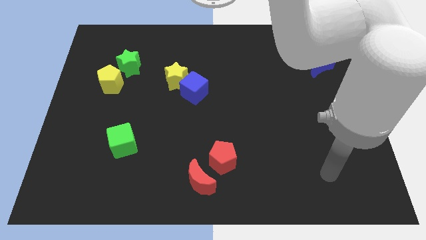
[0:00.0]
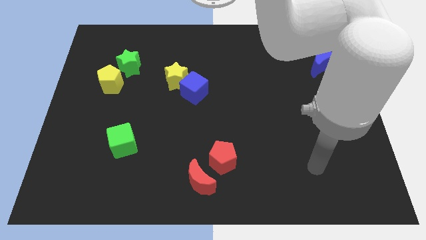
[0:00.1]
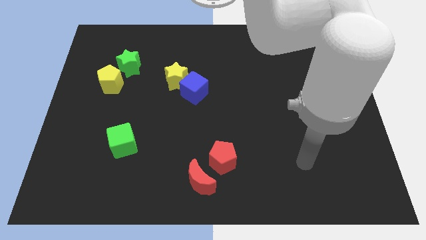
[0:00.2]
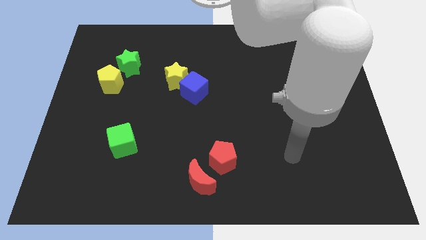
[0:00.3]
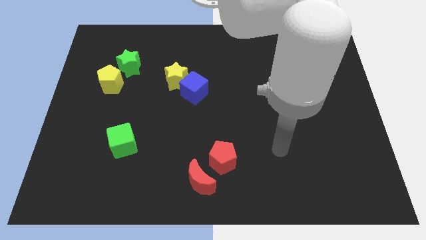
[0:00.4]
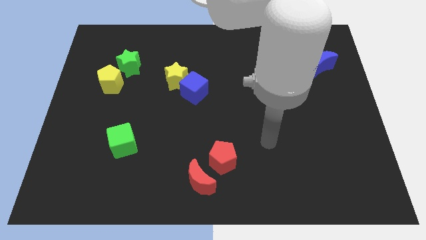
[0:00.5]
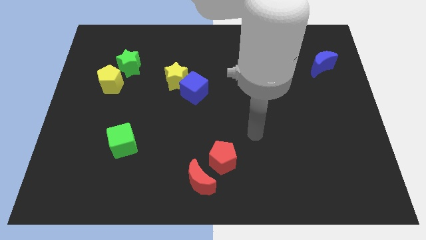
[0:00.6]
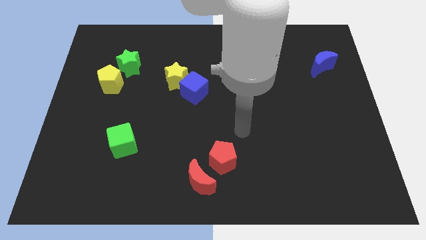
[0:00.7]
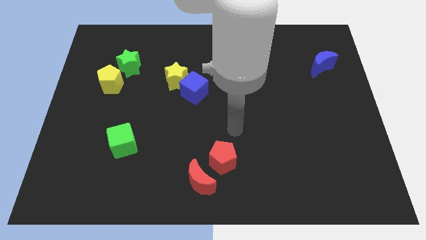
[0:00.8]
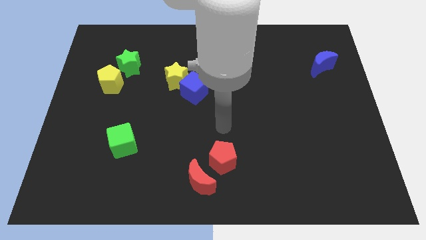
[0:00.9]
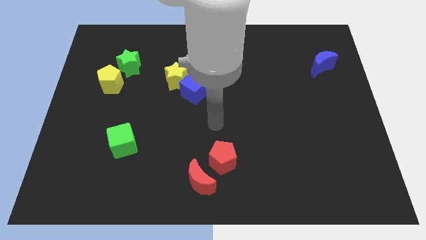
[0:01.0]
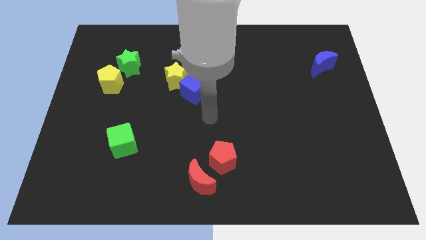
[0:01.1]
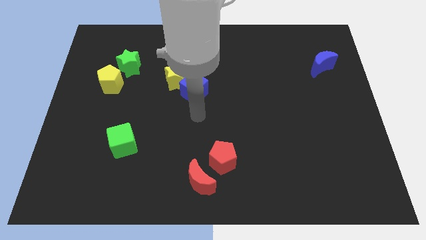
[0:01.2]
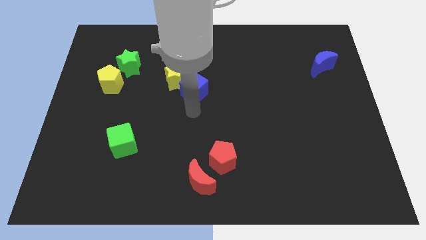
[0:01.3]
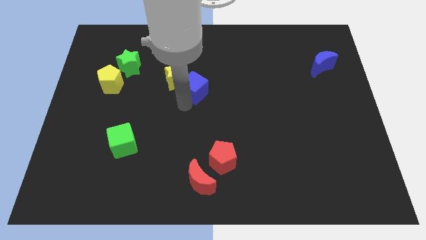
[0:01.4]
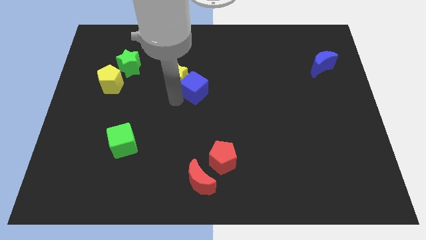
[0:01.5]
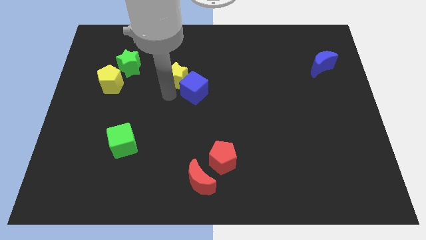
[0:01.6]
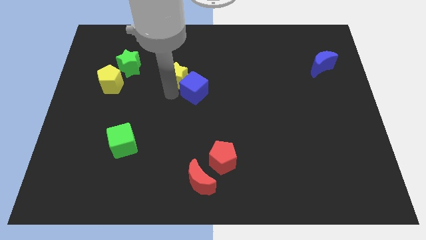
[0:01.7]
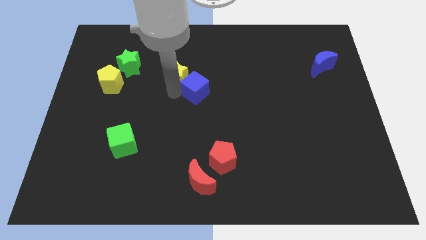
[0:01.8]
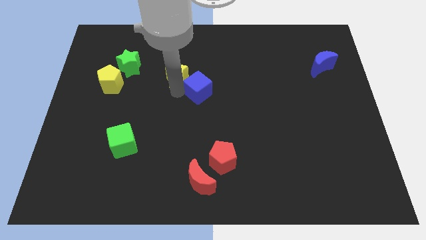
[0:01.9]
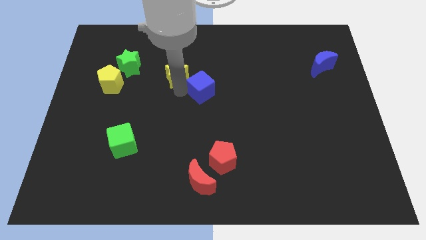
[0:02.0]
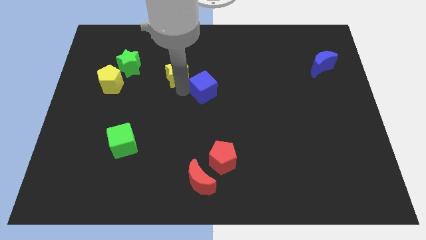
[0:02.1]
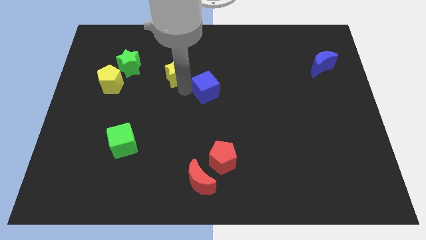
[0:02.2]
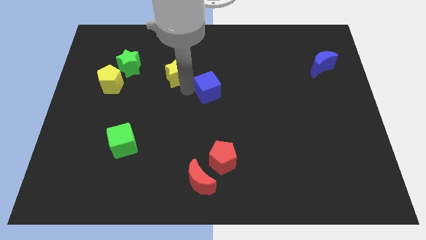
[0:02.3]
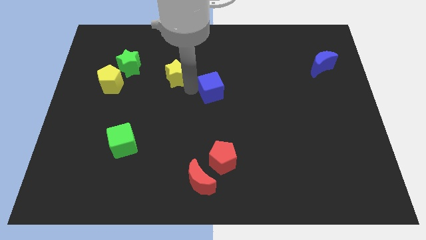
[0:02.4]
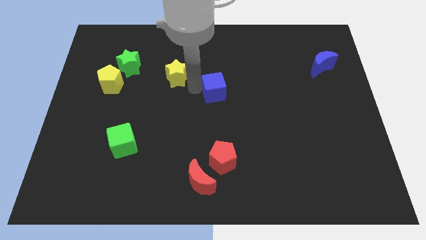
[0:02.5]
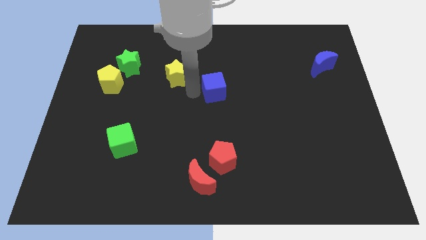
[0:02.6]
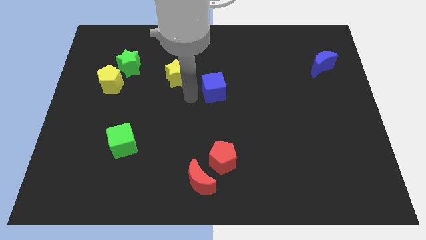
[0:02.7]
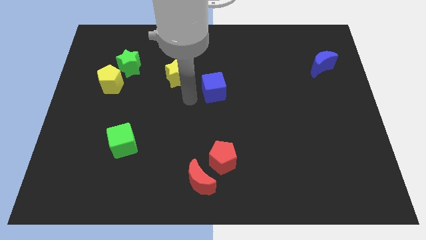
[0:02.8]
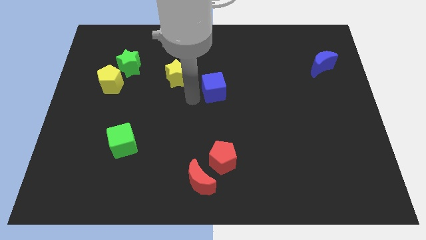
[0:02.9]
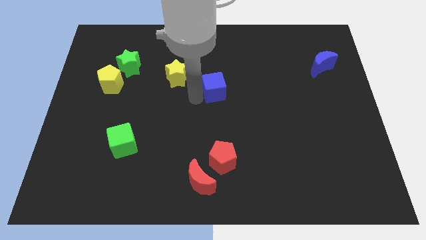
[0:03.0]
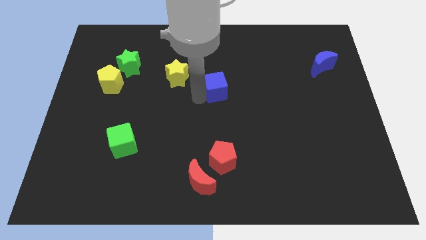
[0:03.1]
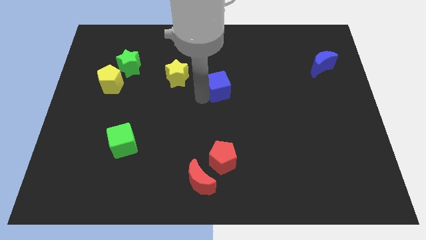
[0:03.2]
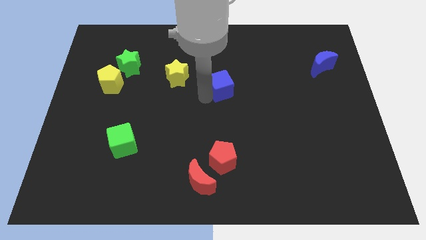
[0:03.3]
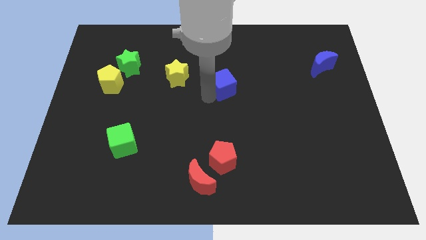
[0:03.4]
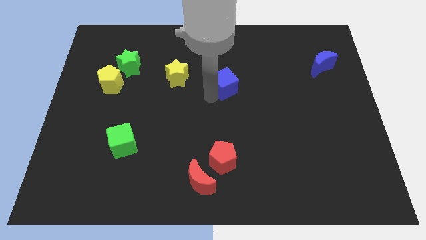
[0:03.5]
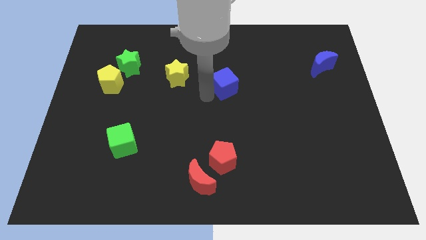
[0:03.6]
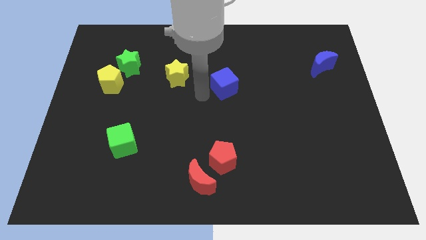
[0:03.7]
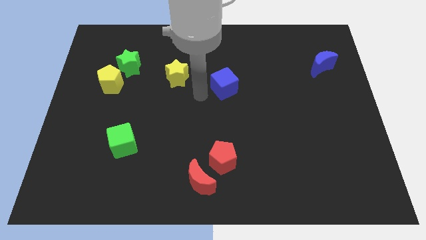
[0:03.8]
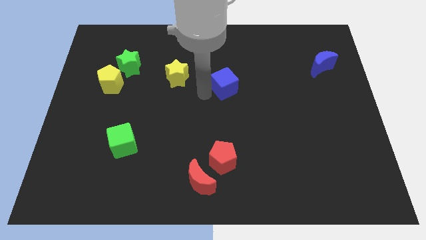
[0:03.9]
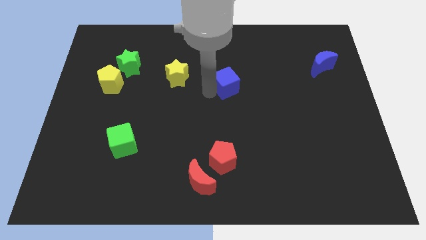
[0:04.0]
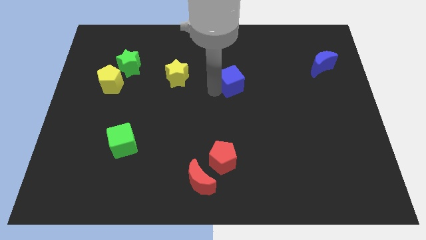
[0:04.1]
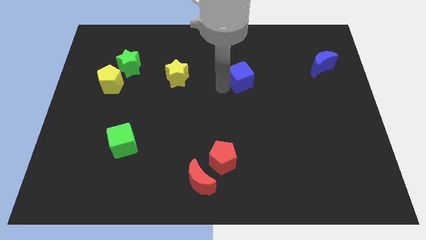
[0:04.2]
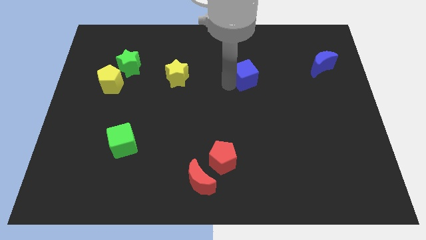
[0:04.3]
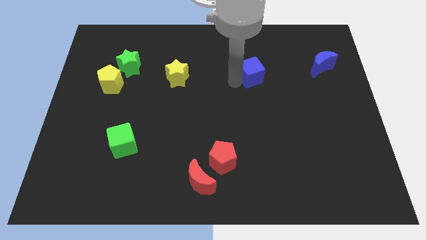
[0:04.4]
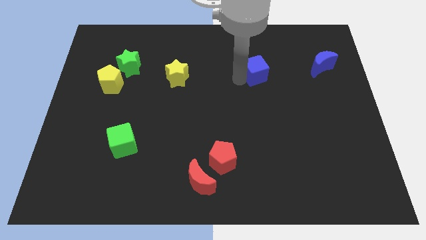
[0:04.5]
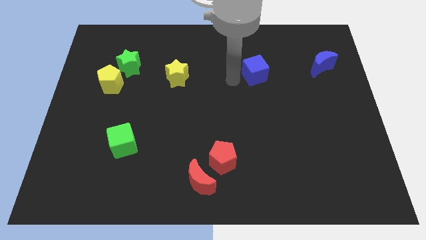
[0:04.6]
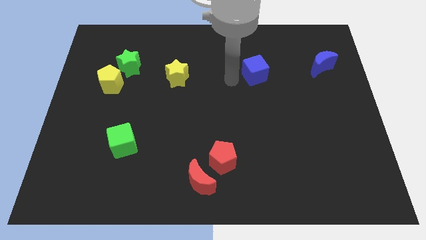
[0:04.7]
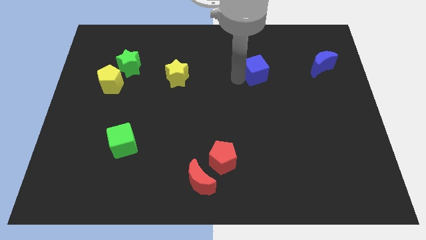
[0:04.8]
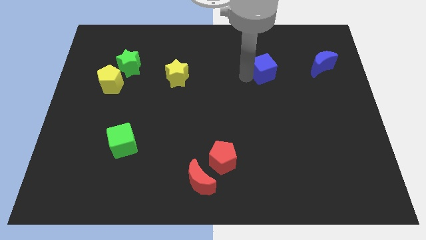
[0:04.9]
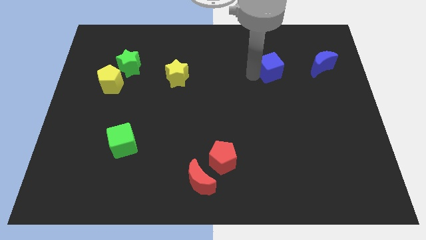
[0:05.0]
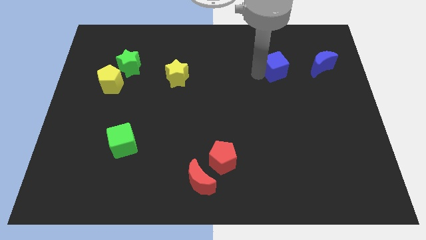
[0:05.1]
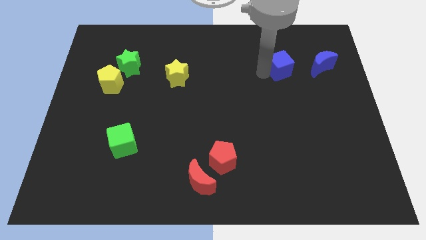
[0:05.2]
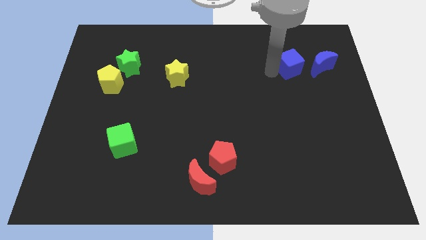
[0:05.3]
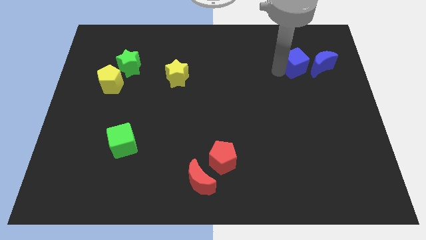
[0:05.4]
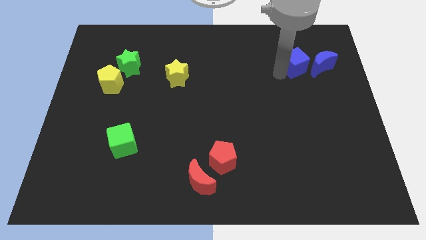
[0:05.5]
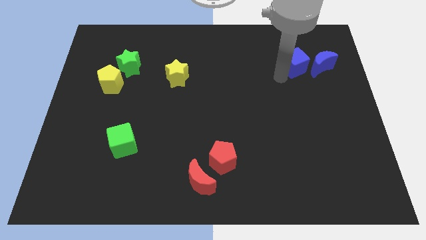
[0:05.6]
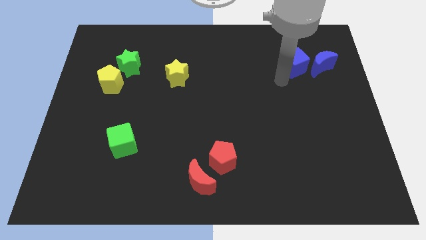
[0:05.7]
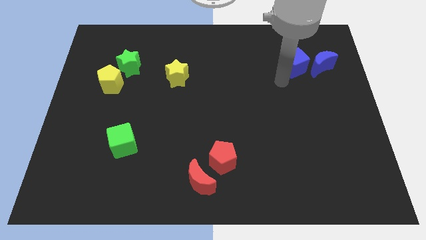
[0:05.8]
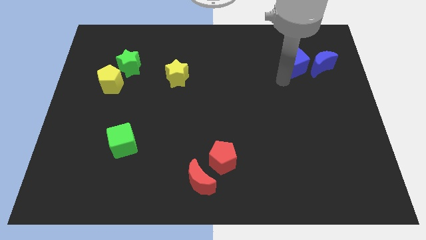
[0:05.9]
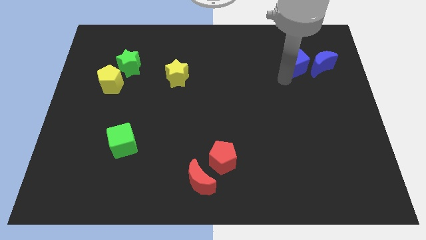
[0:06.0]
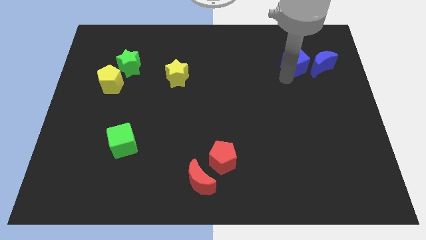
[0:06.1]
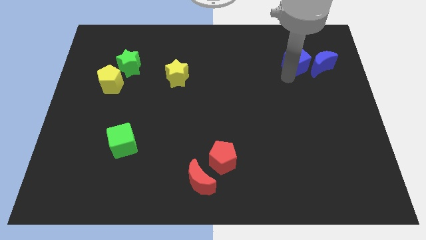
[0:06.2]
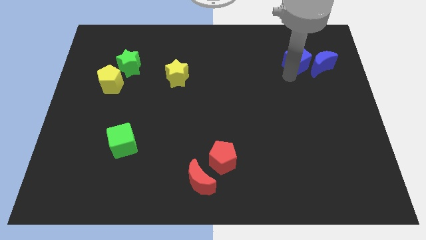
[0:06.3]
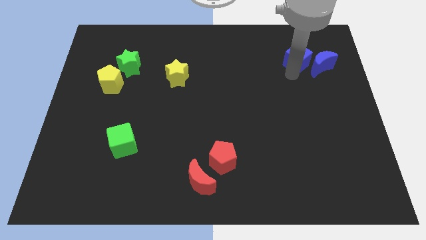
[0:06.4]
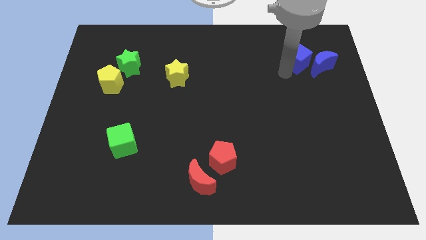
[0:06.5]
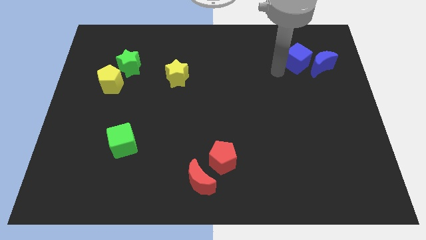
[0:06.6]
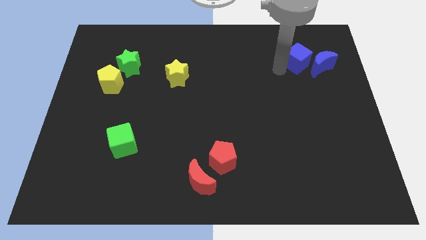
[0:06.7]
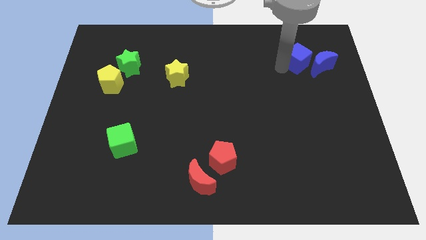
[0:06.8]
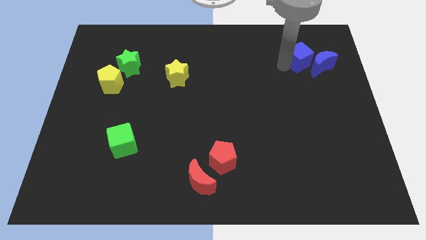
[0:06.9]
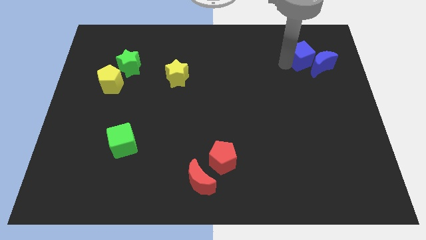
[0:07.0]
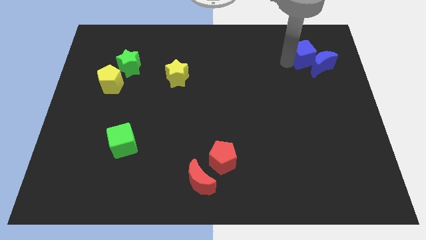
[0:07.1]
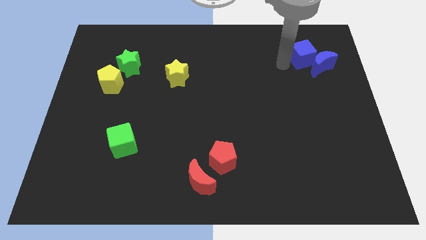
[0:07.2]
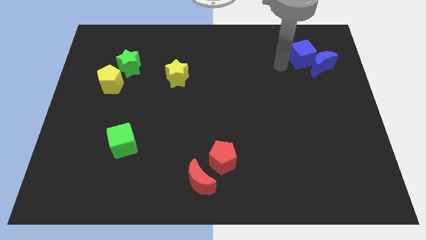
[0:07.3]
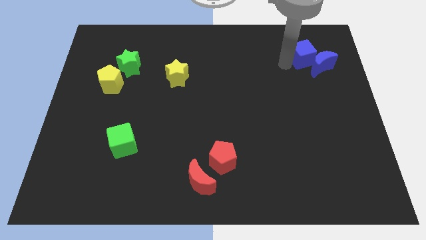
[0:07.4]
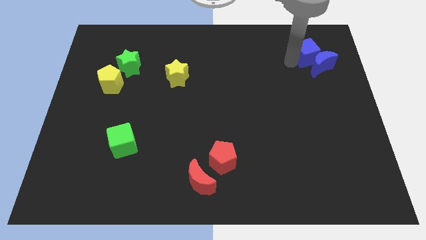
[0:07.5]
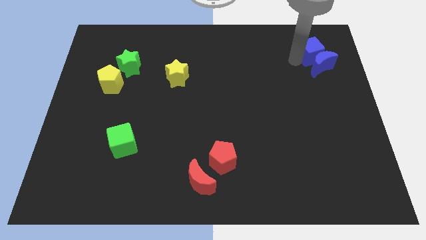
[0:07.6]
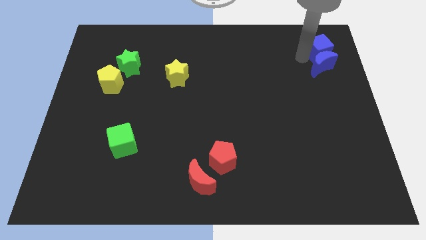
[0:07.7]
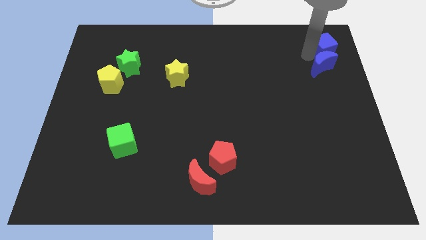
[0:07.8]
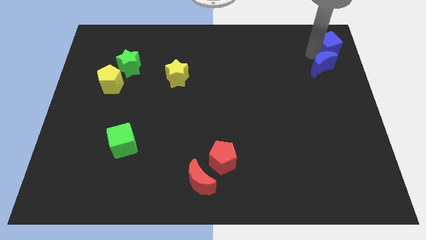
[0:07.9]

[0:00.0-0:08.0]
move the blue cube to the top right of the board

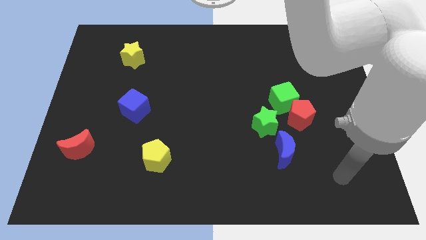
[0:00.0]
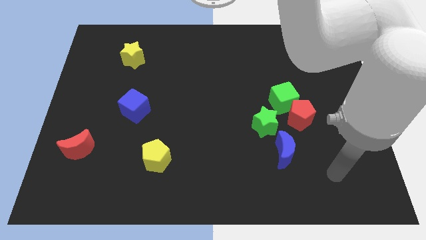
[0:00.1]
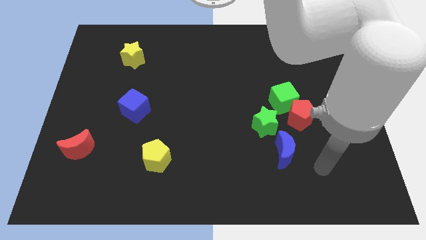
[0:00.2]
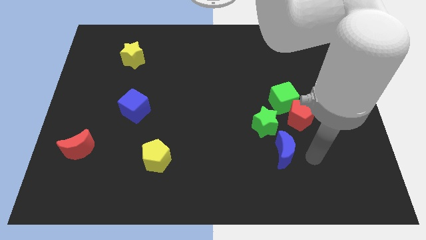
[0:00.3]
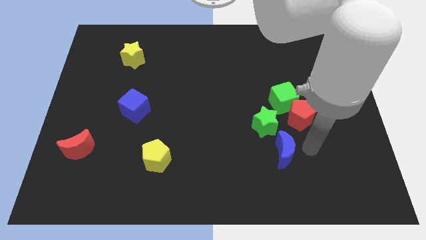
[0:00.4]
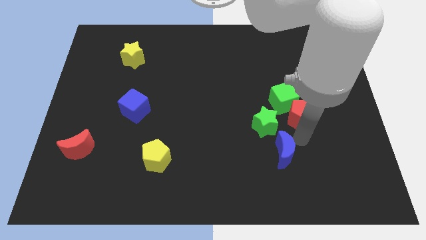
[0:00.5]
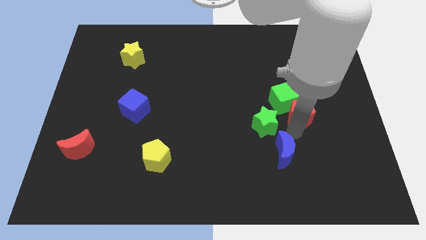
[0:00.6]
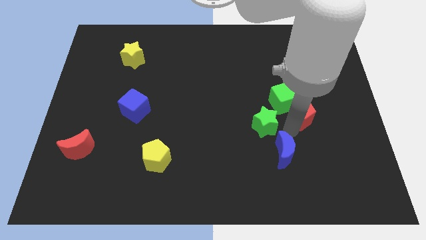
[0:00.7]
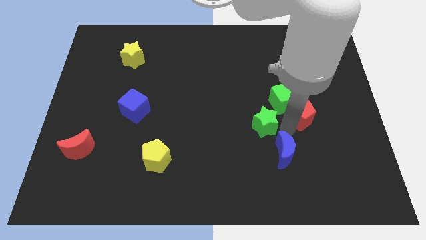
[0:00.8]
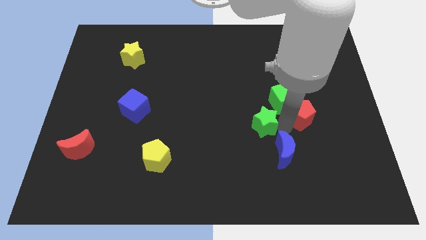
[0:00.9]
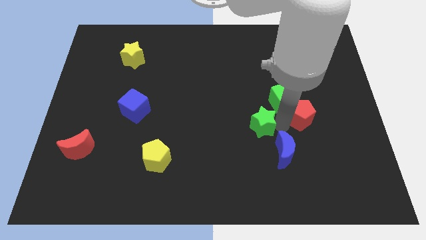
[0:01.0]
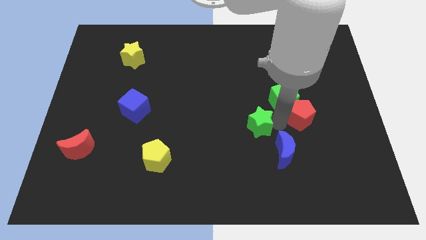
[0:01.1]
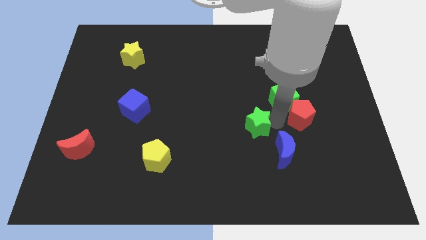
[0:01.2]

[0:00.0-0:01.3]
move the green star to the middle
